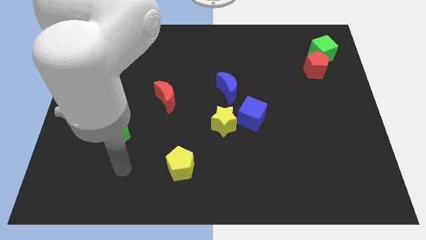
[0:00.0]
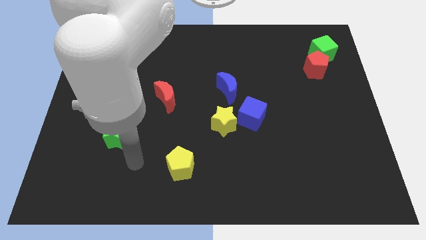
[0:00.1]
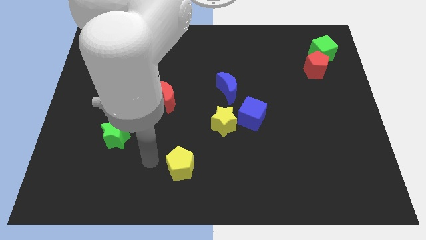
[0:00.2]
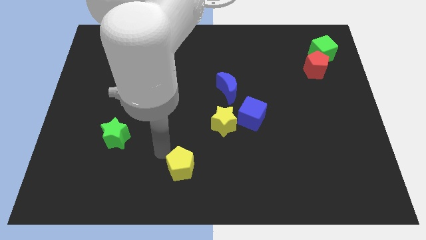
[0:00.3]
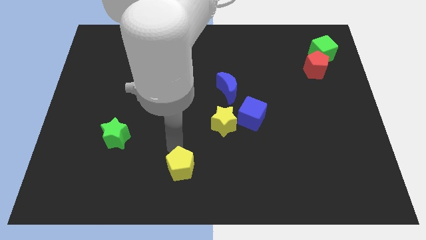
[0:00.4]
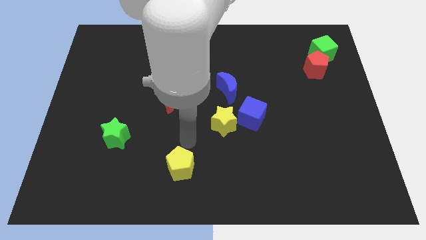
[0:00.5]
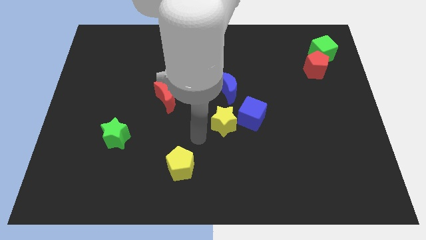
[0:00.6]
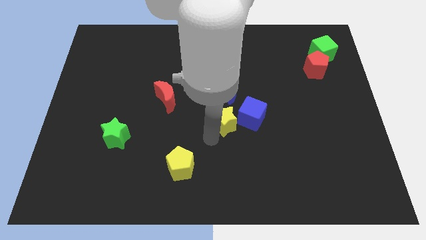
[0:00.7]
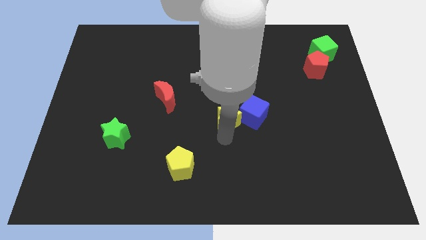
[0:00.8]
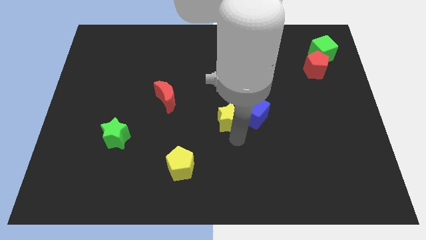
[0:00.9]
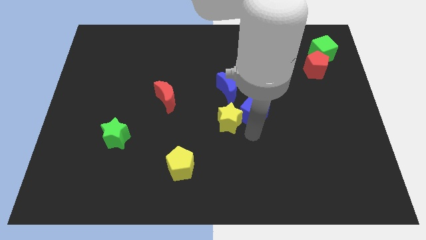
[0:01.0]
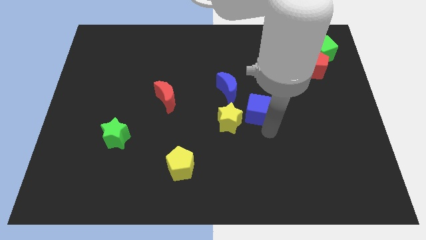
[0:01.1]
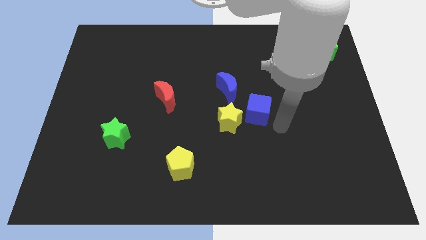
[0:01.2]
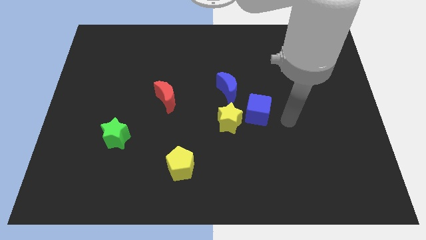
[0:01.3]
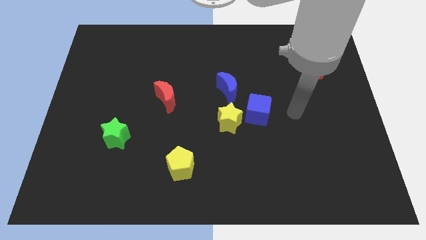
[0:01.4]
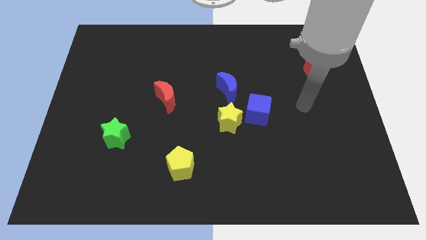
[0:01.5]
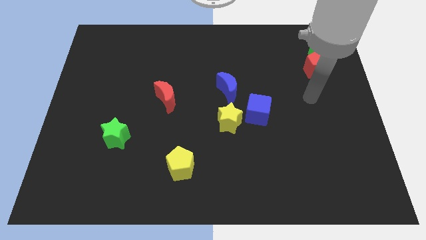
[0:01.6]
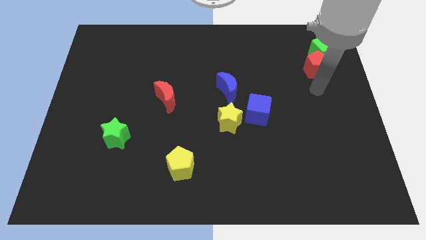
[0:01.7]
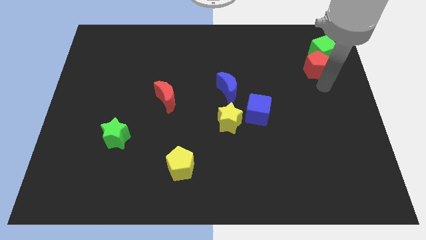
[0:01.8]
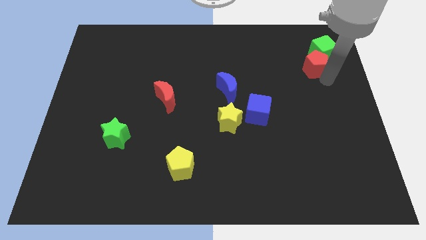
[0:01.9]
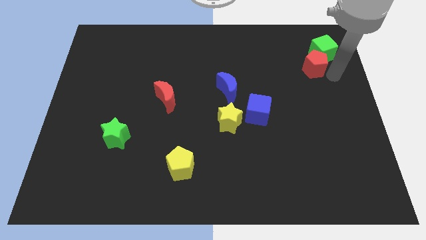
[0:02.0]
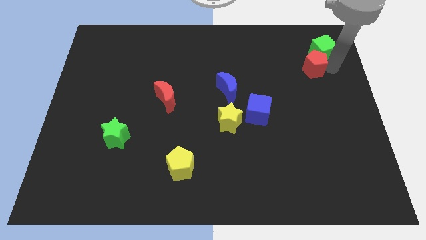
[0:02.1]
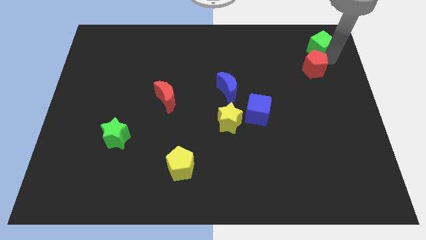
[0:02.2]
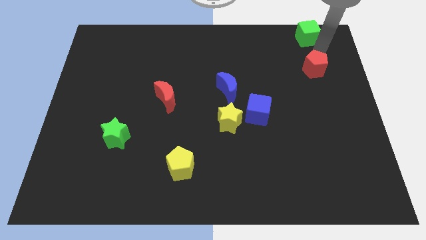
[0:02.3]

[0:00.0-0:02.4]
pull the red pentagon apart from the green cube

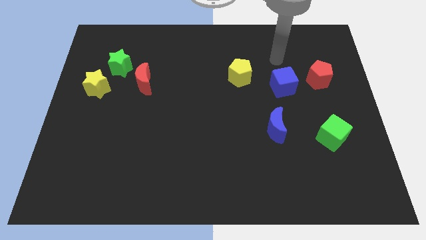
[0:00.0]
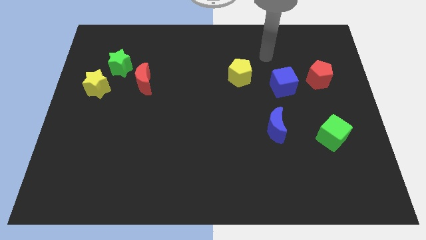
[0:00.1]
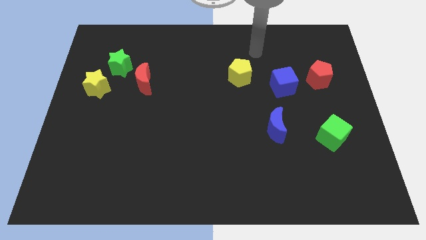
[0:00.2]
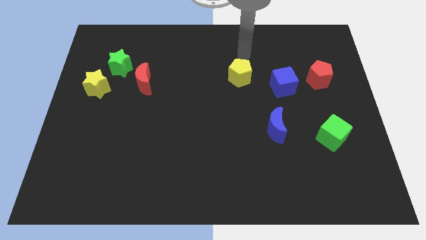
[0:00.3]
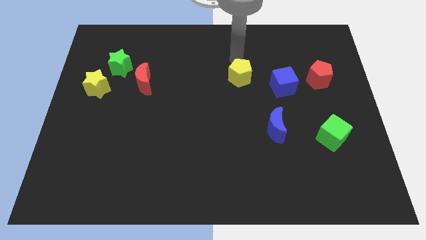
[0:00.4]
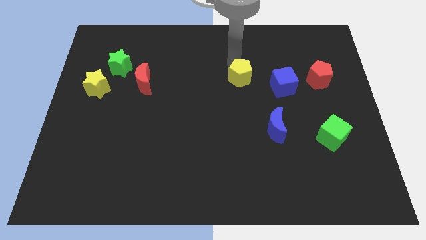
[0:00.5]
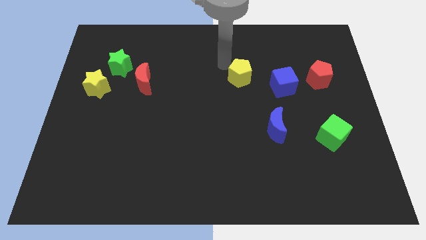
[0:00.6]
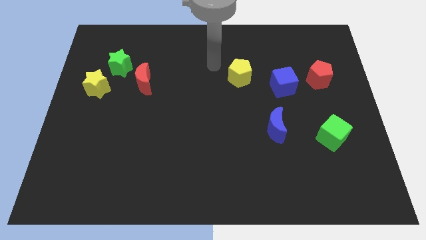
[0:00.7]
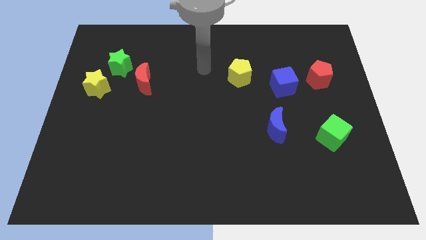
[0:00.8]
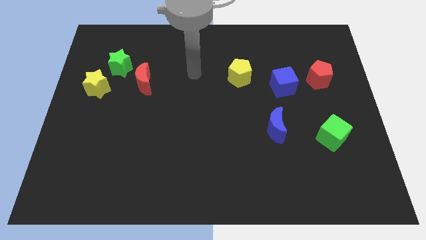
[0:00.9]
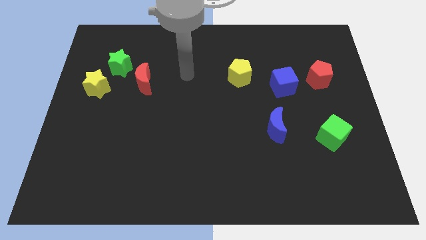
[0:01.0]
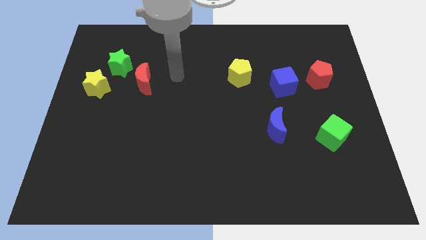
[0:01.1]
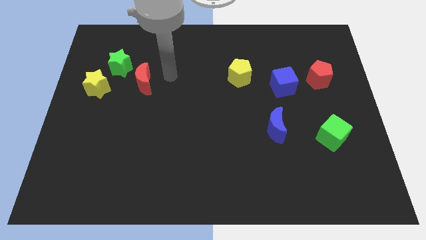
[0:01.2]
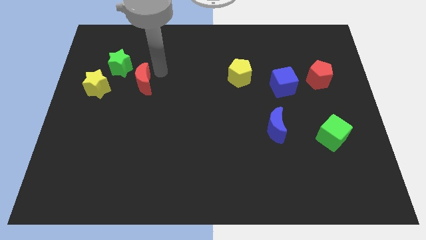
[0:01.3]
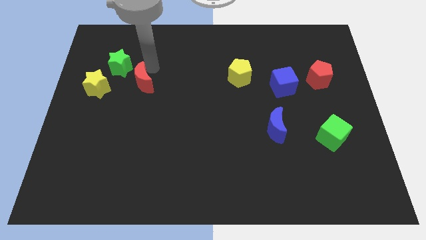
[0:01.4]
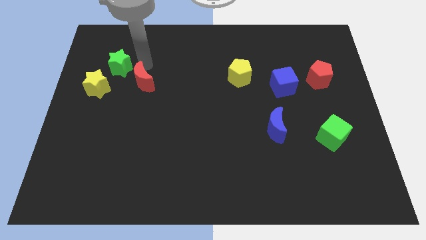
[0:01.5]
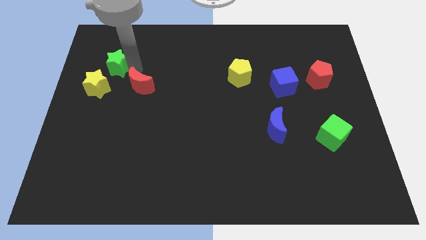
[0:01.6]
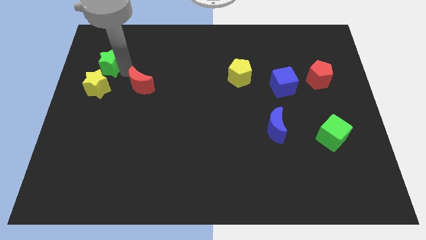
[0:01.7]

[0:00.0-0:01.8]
separate the red moon from the green star

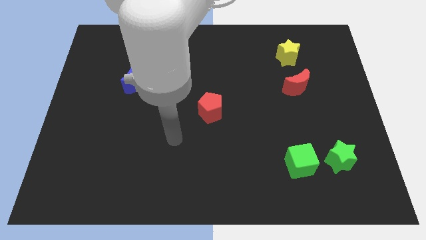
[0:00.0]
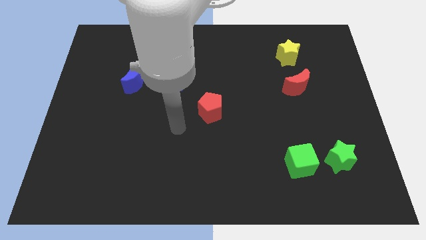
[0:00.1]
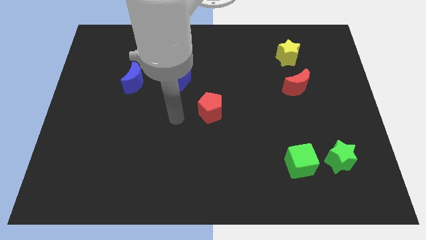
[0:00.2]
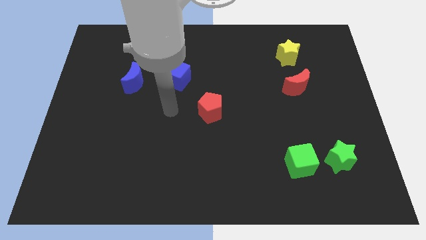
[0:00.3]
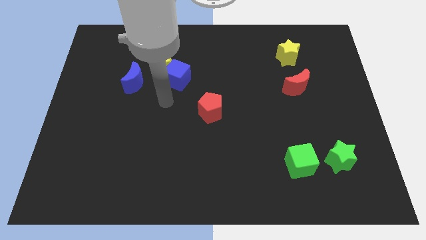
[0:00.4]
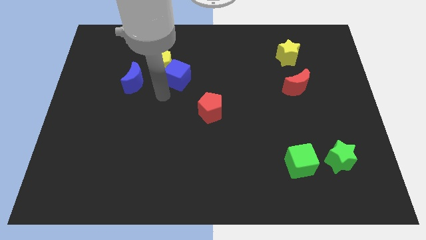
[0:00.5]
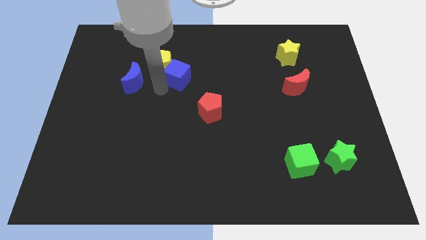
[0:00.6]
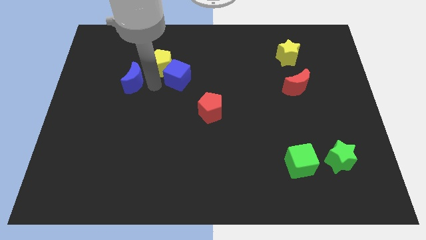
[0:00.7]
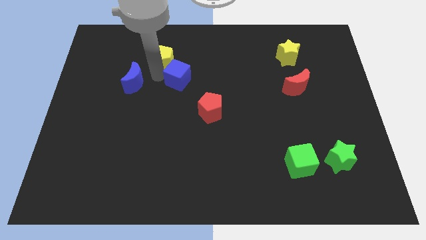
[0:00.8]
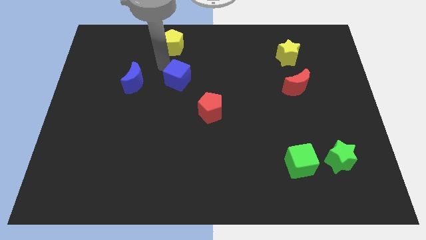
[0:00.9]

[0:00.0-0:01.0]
pull the blue cube apart from the yellow pentagon

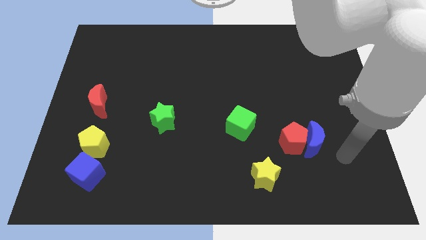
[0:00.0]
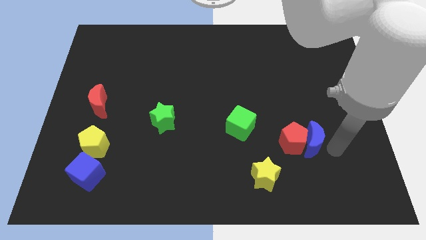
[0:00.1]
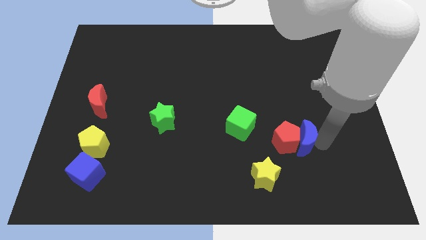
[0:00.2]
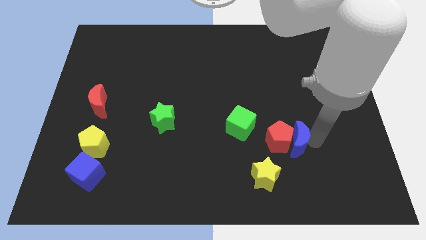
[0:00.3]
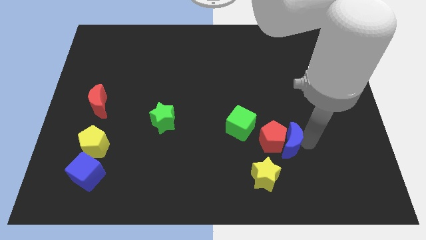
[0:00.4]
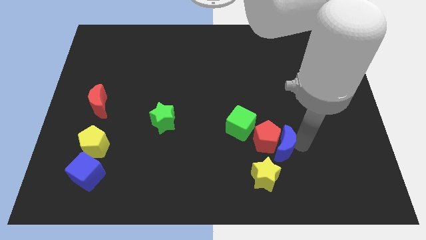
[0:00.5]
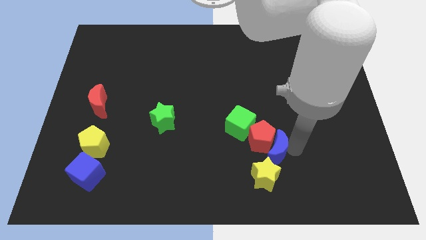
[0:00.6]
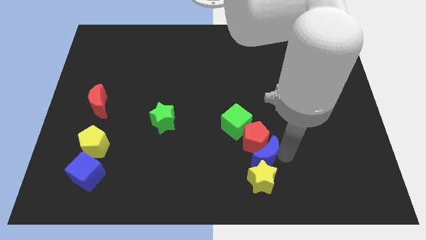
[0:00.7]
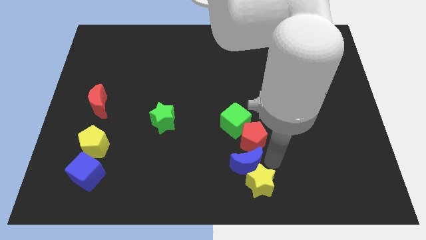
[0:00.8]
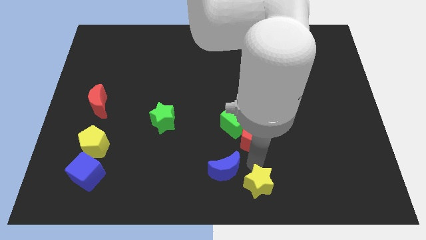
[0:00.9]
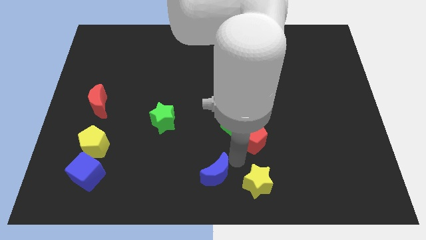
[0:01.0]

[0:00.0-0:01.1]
pull the red pentagon apart from the blue moon

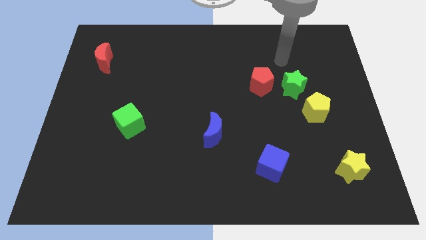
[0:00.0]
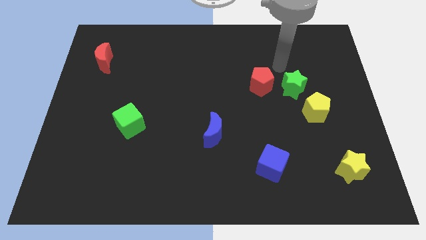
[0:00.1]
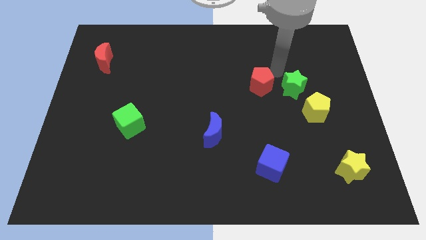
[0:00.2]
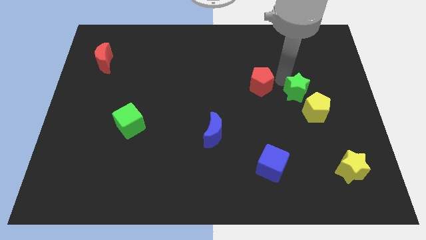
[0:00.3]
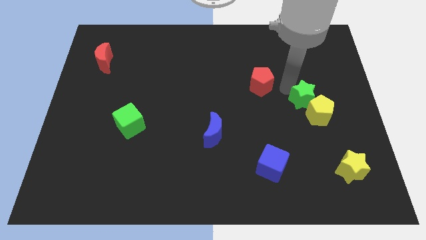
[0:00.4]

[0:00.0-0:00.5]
move the red pentagon away from the green star

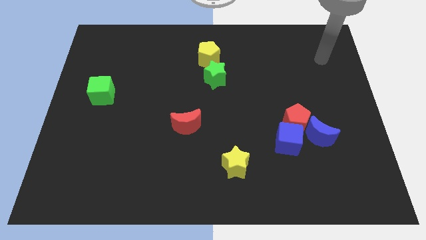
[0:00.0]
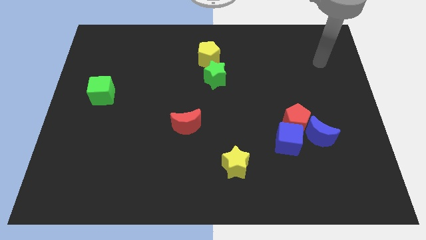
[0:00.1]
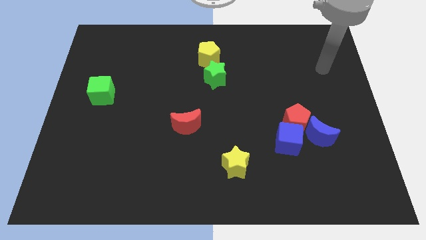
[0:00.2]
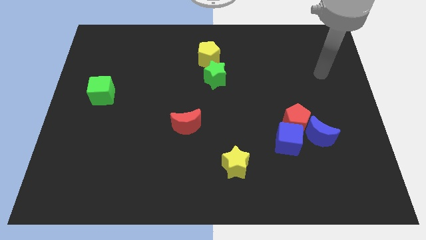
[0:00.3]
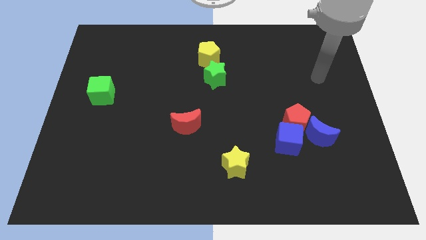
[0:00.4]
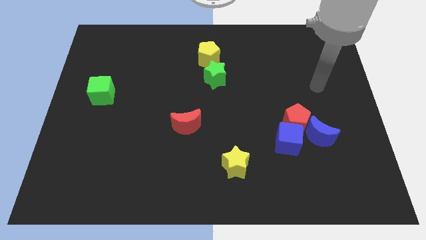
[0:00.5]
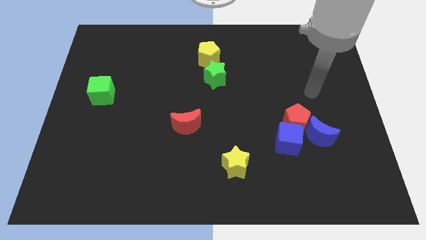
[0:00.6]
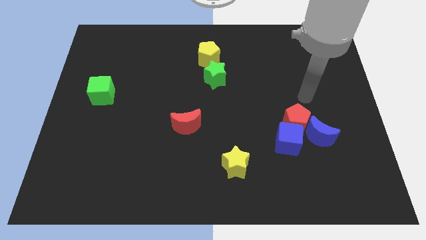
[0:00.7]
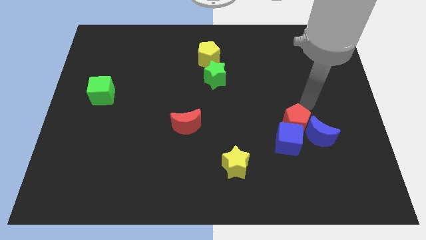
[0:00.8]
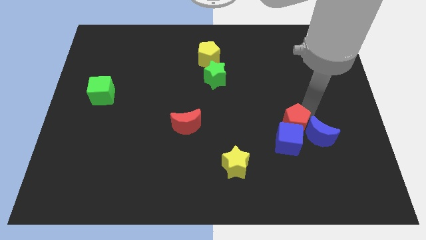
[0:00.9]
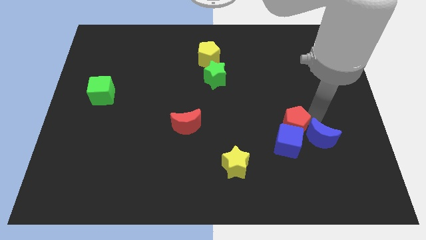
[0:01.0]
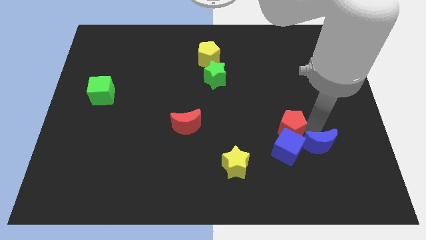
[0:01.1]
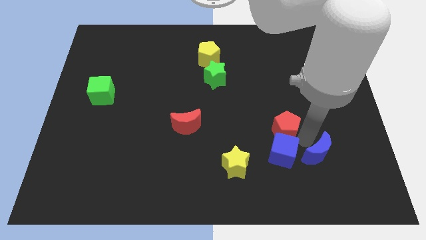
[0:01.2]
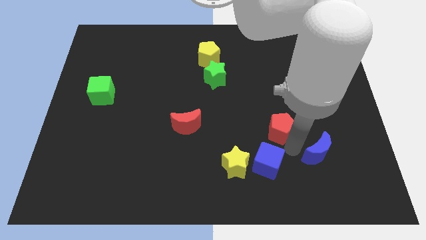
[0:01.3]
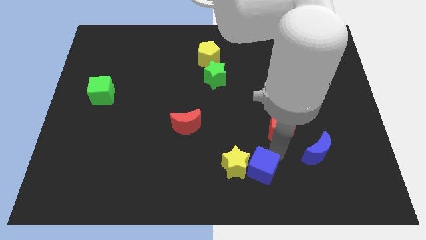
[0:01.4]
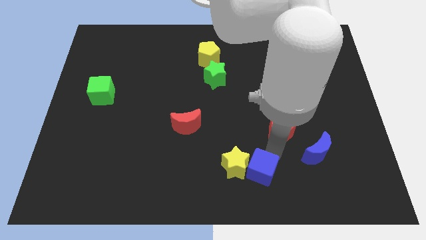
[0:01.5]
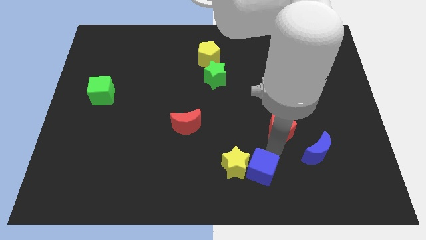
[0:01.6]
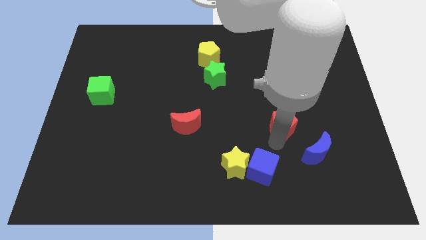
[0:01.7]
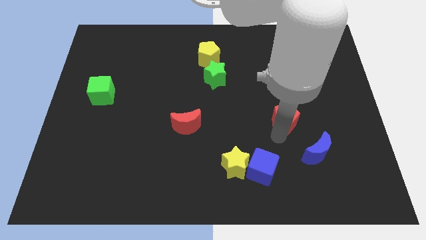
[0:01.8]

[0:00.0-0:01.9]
separate the red pentagon from the blue cube and blue moon

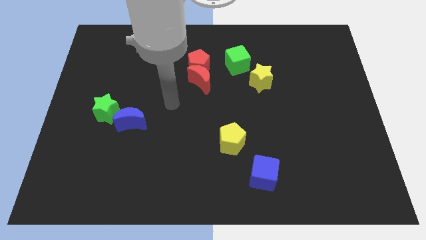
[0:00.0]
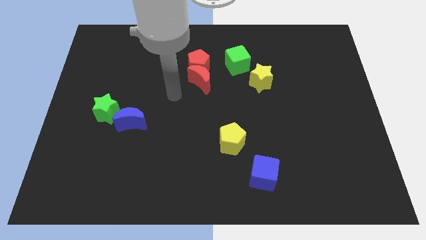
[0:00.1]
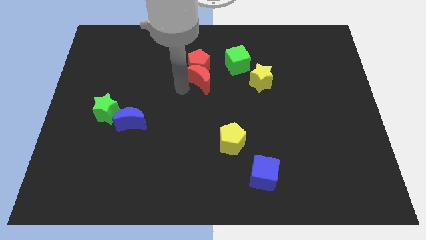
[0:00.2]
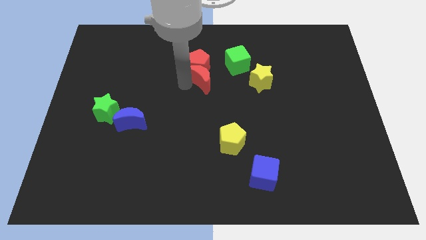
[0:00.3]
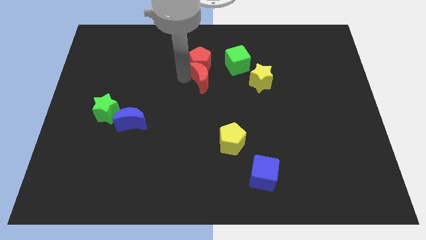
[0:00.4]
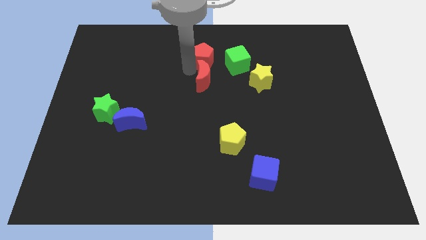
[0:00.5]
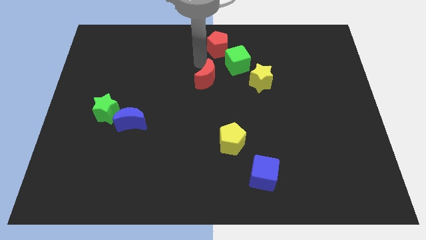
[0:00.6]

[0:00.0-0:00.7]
pull the red moon apart from the red pentagon
